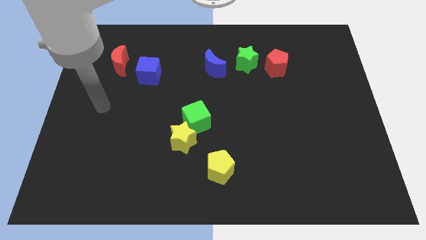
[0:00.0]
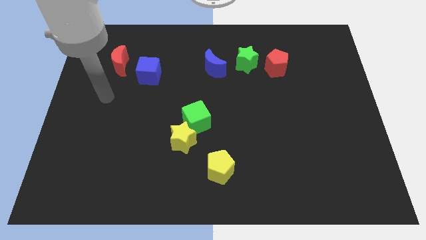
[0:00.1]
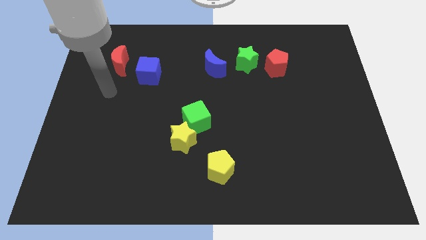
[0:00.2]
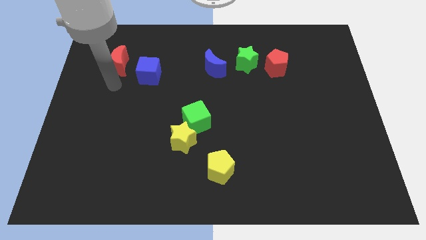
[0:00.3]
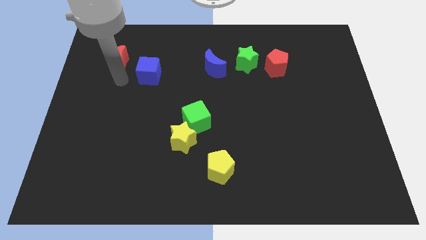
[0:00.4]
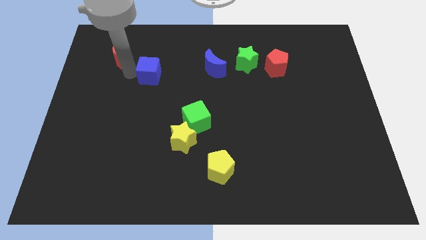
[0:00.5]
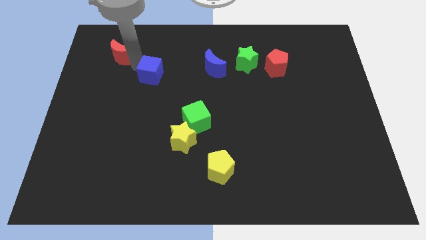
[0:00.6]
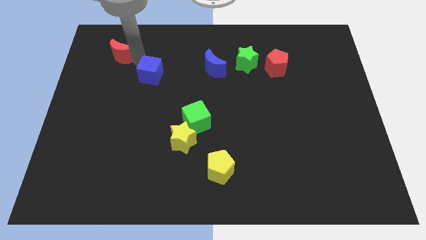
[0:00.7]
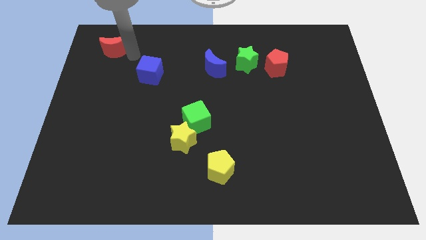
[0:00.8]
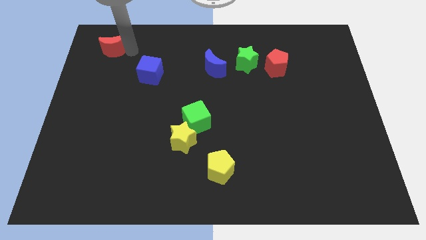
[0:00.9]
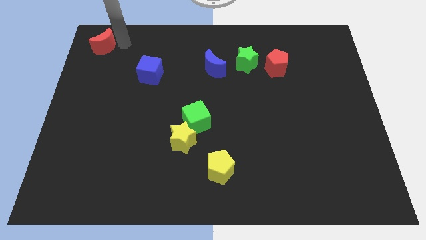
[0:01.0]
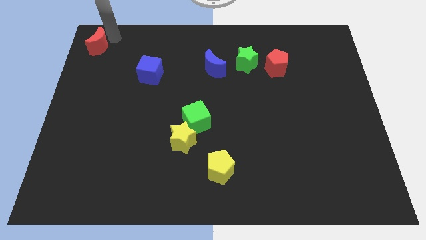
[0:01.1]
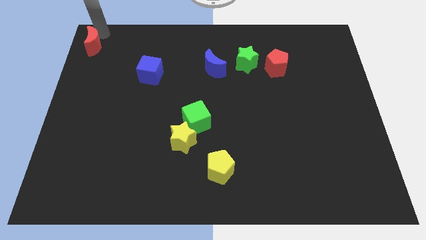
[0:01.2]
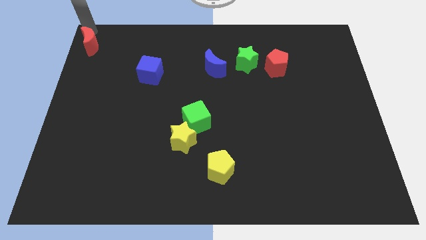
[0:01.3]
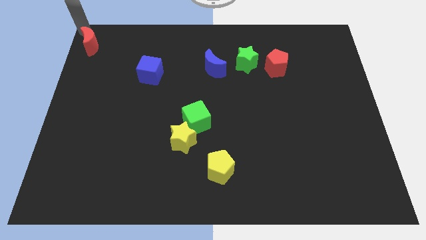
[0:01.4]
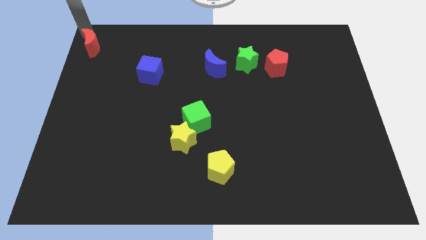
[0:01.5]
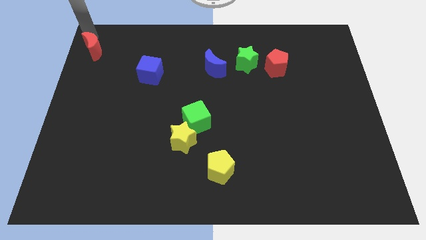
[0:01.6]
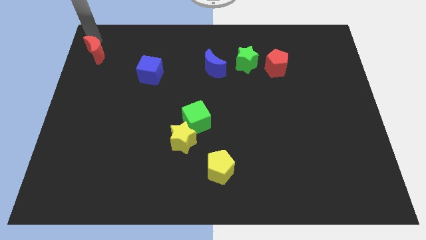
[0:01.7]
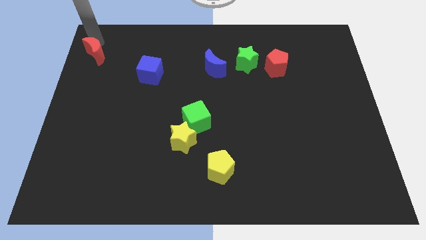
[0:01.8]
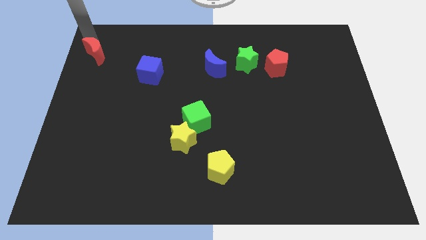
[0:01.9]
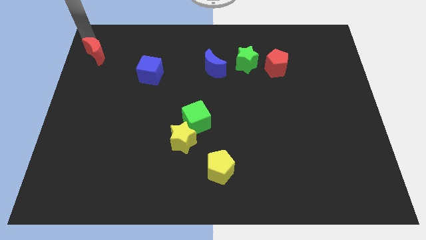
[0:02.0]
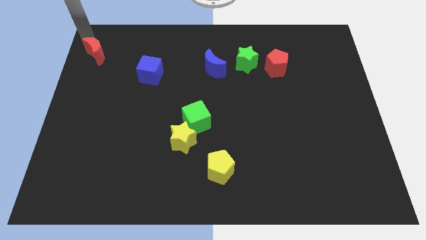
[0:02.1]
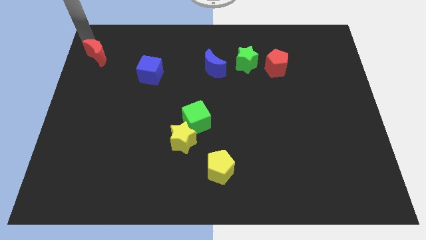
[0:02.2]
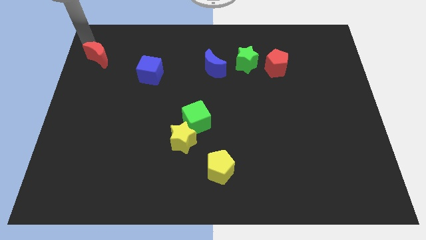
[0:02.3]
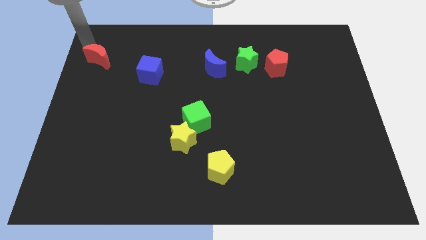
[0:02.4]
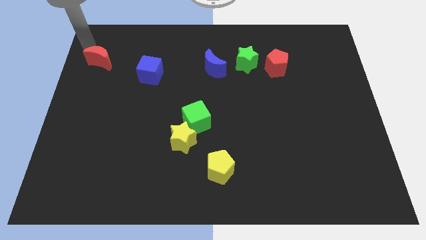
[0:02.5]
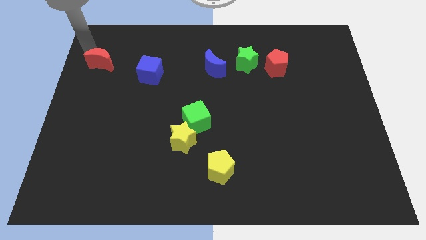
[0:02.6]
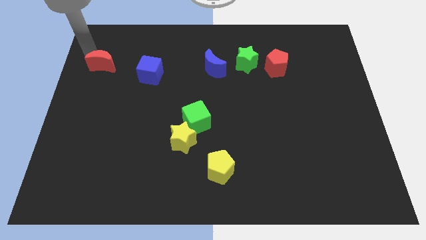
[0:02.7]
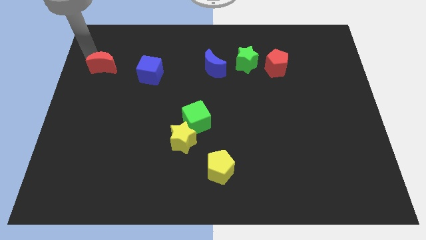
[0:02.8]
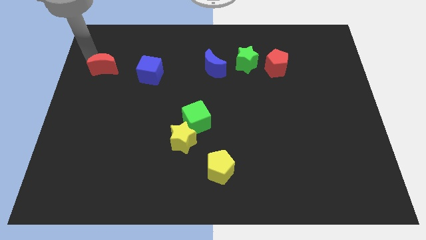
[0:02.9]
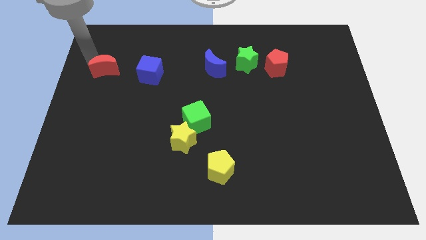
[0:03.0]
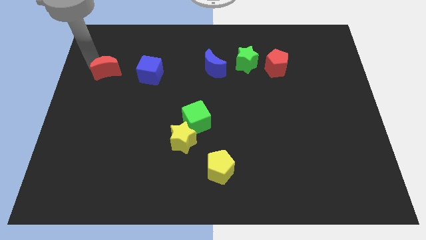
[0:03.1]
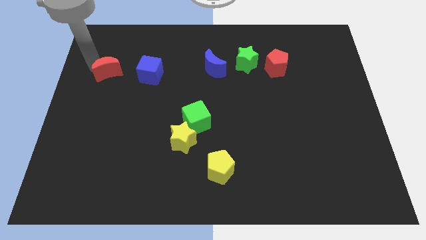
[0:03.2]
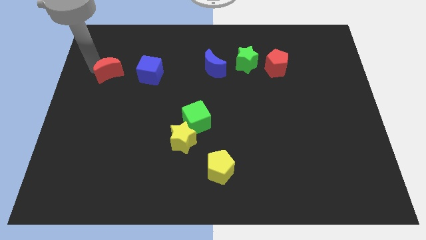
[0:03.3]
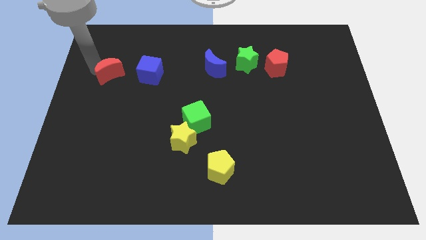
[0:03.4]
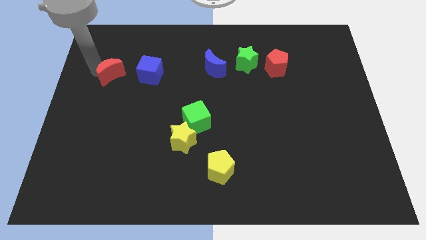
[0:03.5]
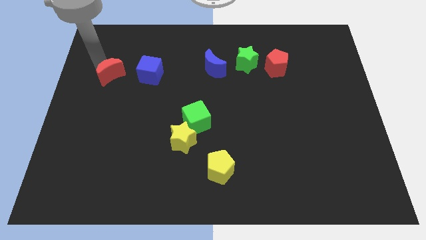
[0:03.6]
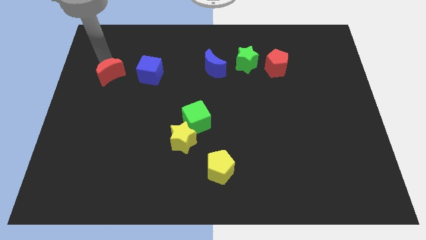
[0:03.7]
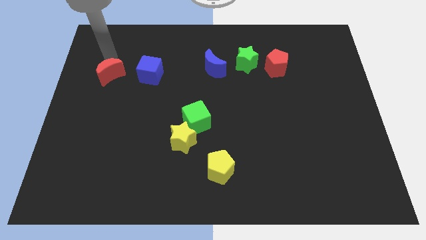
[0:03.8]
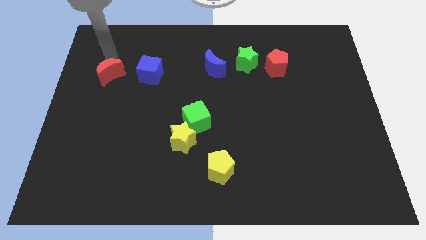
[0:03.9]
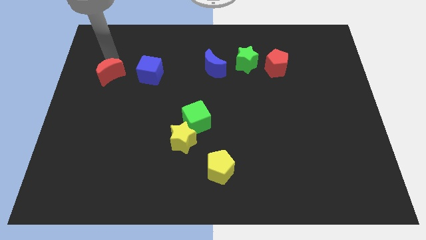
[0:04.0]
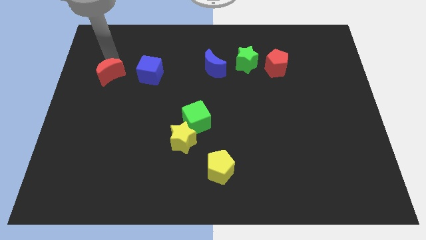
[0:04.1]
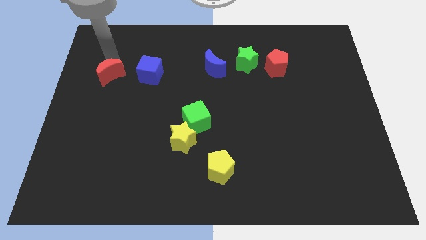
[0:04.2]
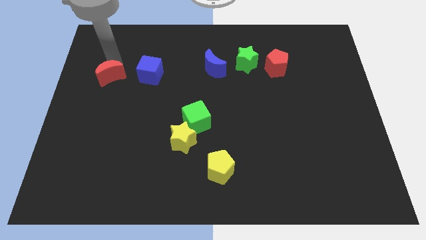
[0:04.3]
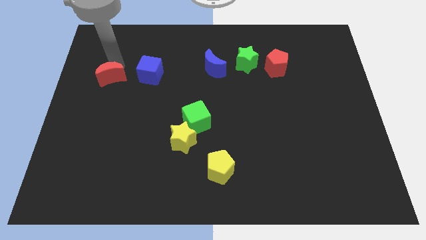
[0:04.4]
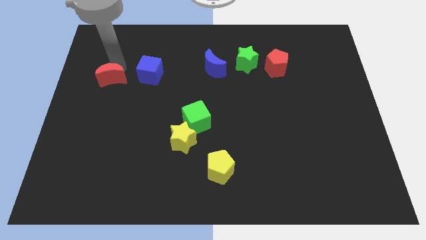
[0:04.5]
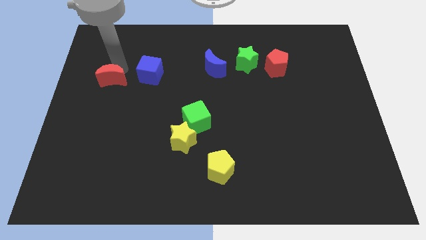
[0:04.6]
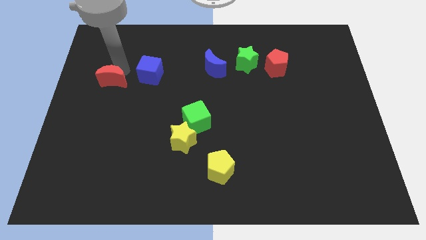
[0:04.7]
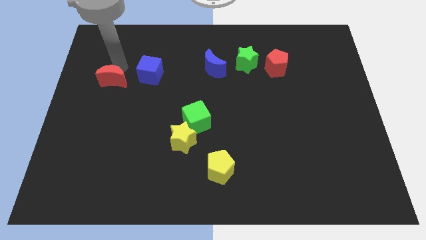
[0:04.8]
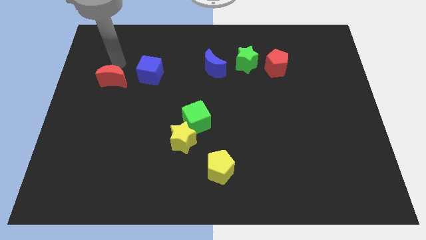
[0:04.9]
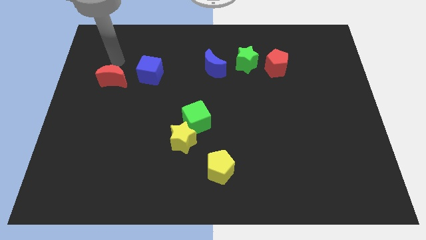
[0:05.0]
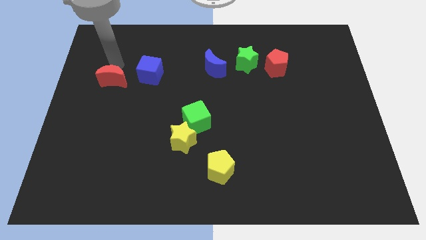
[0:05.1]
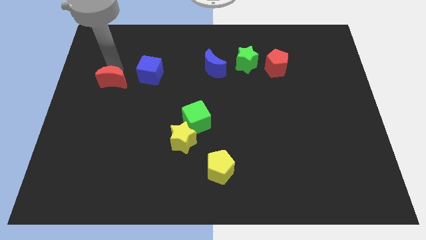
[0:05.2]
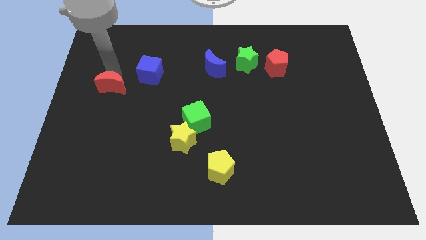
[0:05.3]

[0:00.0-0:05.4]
slide the red moon downwards somewhat

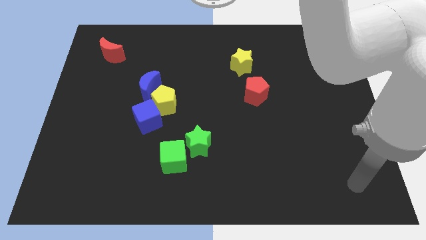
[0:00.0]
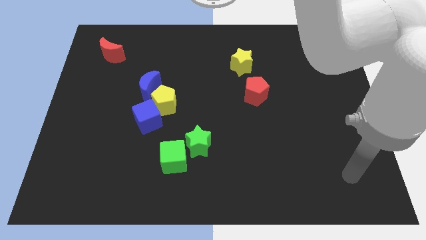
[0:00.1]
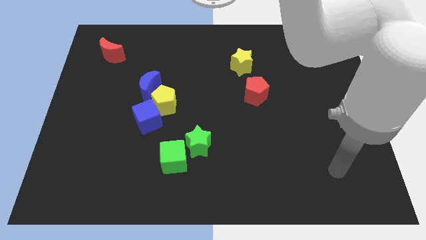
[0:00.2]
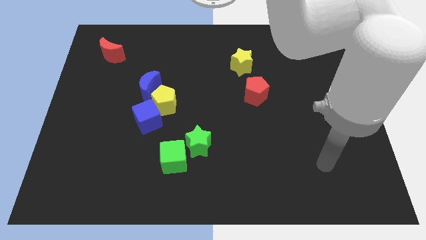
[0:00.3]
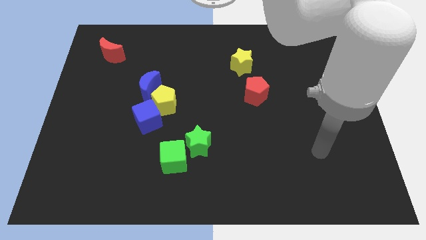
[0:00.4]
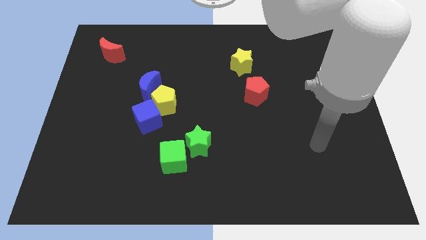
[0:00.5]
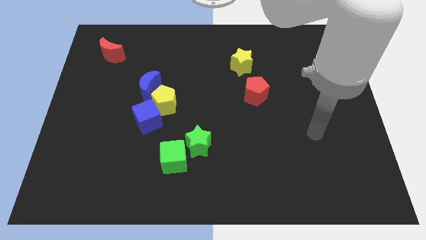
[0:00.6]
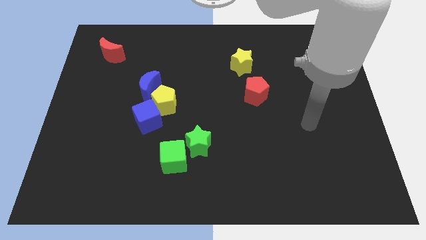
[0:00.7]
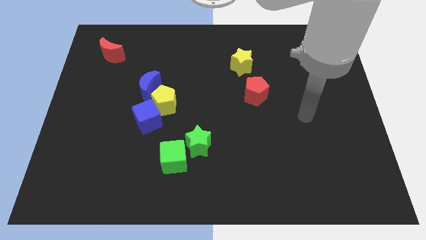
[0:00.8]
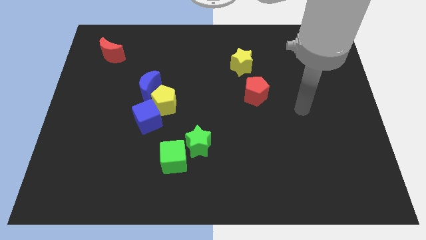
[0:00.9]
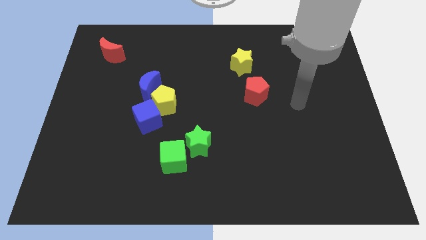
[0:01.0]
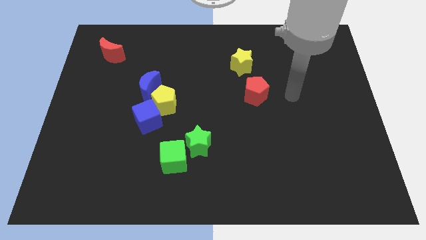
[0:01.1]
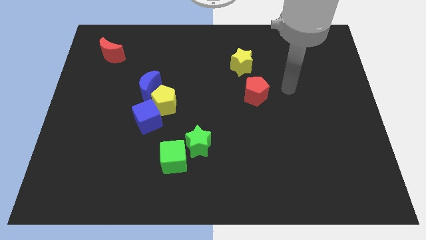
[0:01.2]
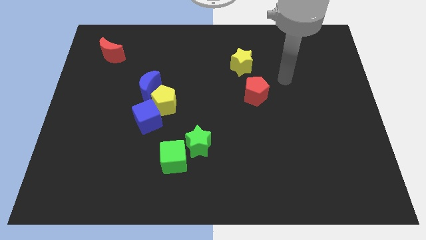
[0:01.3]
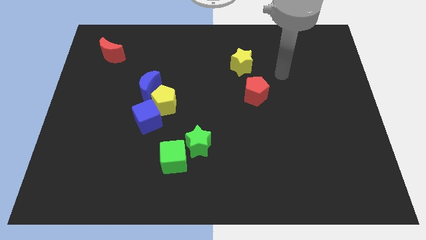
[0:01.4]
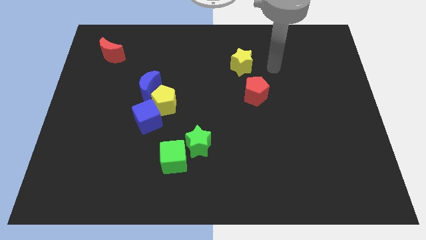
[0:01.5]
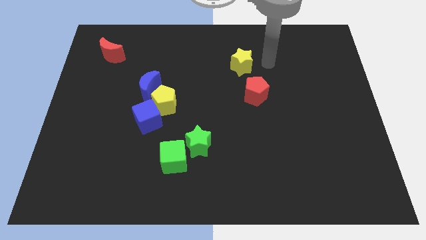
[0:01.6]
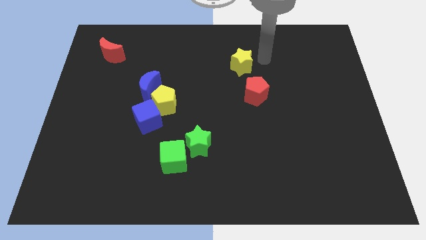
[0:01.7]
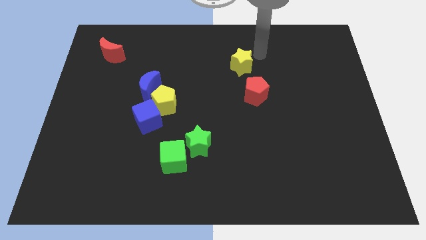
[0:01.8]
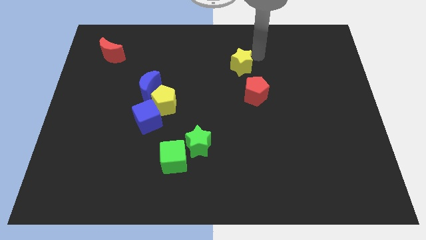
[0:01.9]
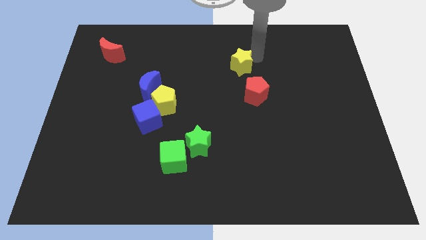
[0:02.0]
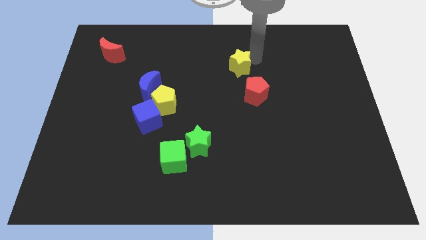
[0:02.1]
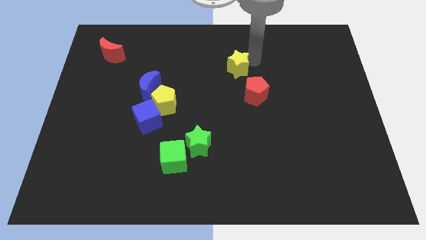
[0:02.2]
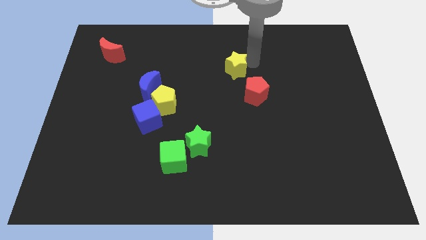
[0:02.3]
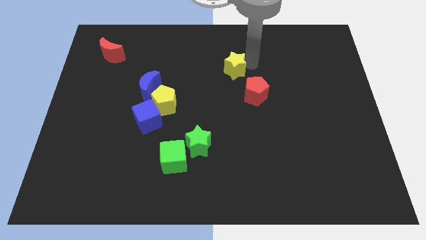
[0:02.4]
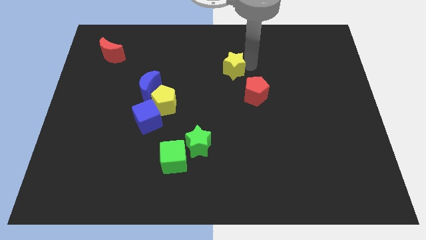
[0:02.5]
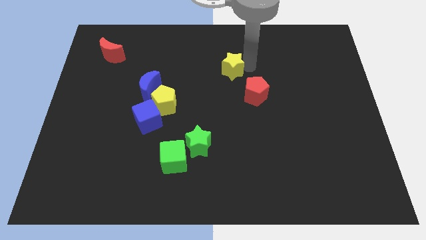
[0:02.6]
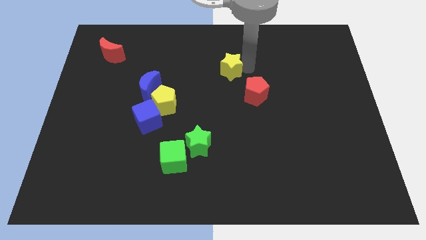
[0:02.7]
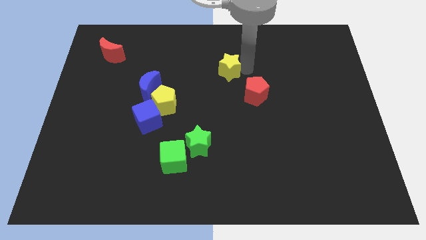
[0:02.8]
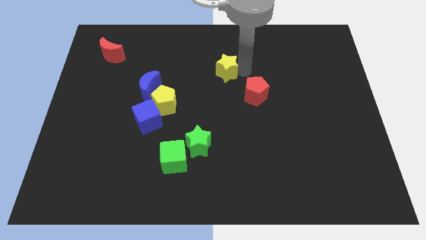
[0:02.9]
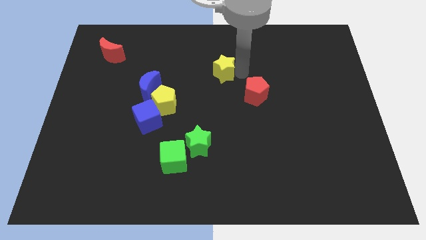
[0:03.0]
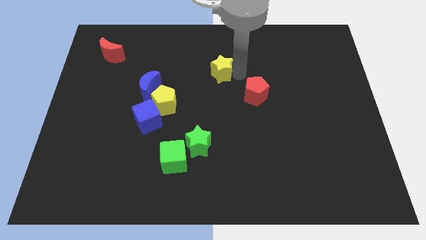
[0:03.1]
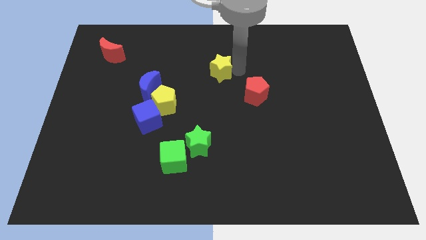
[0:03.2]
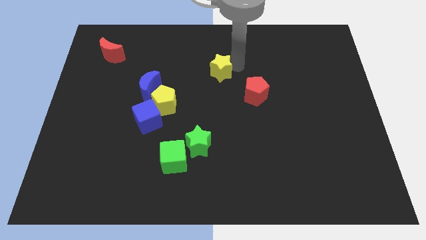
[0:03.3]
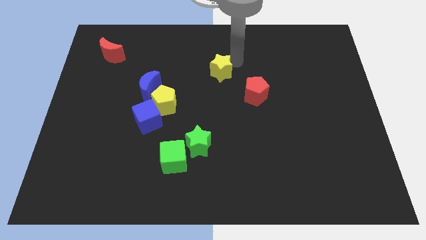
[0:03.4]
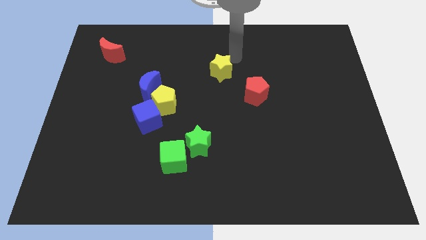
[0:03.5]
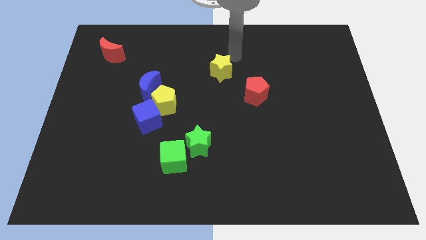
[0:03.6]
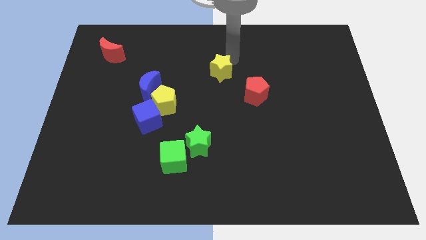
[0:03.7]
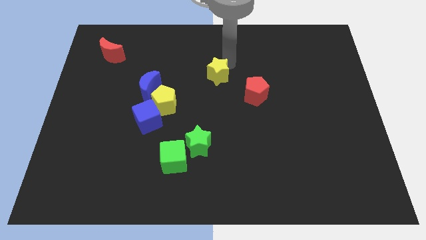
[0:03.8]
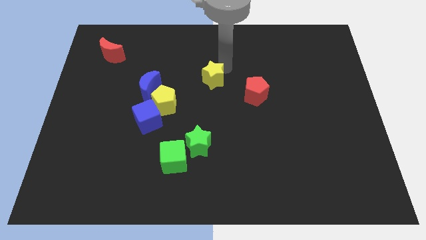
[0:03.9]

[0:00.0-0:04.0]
slightly slide the yellow star down and left
